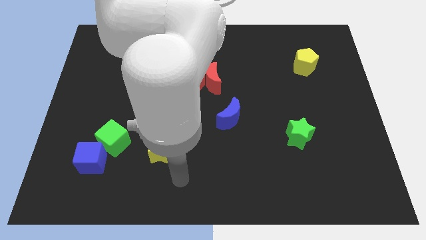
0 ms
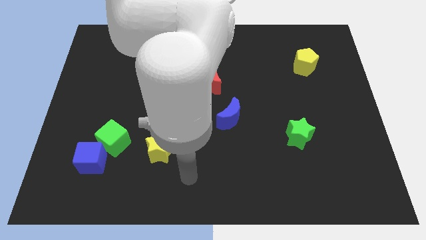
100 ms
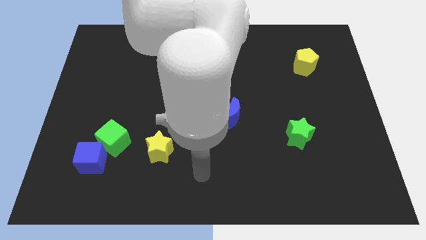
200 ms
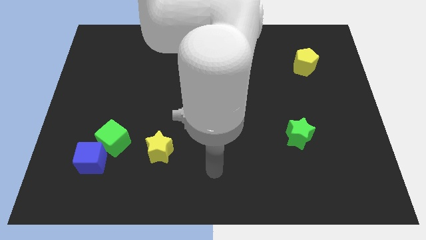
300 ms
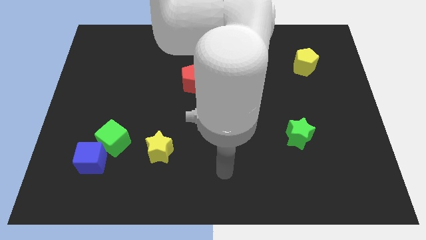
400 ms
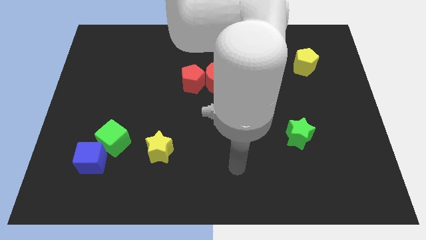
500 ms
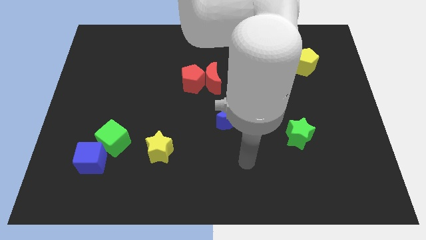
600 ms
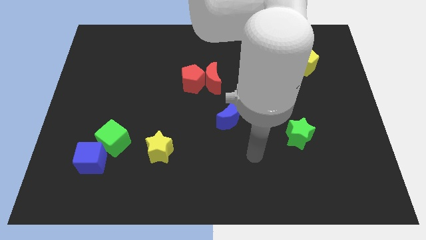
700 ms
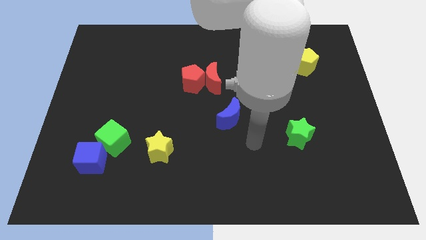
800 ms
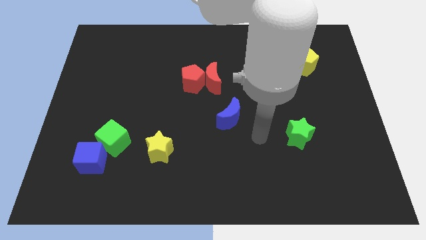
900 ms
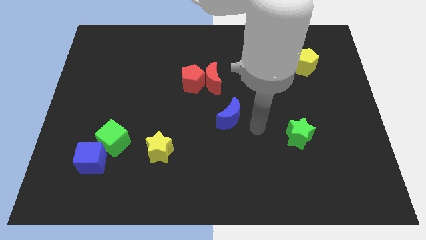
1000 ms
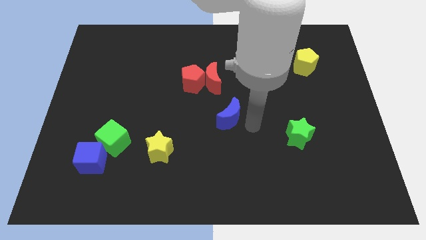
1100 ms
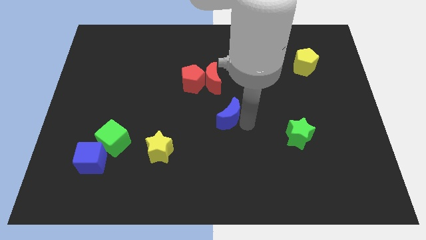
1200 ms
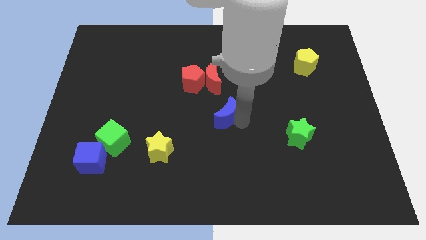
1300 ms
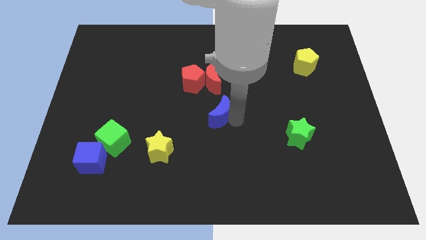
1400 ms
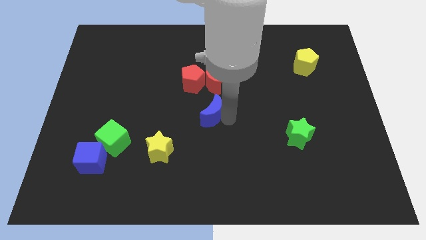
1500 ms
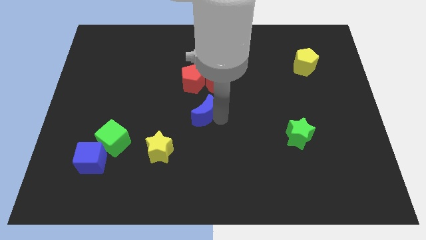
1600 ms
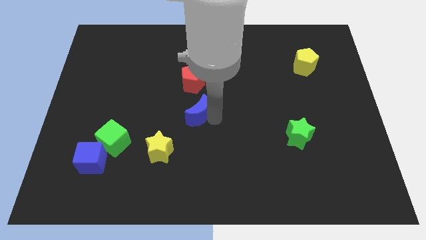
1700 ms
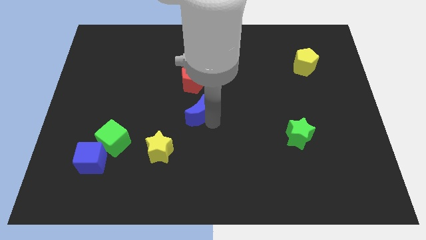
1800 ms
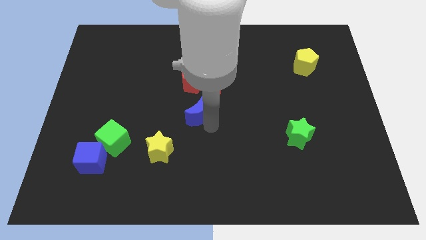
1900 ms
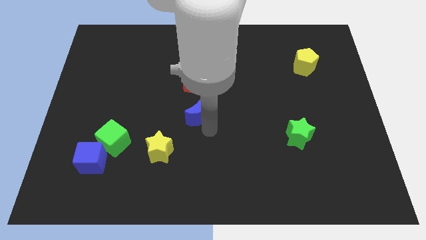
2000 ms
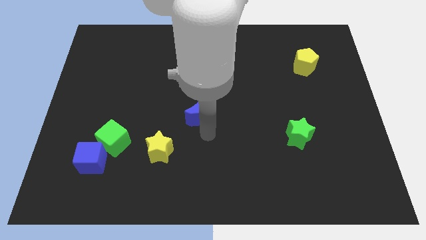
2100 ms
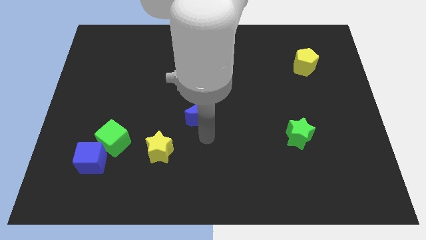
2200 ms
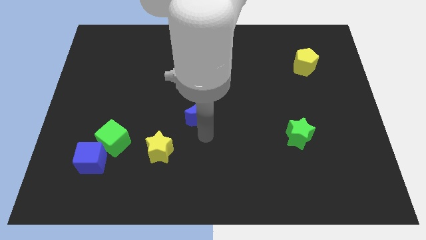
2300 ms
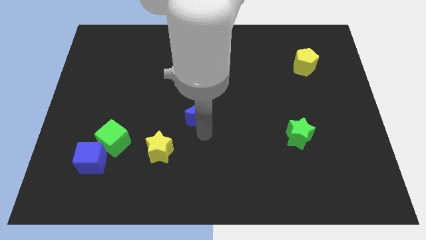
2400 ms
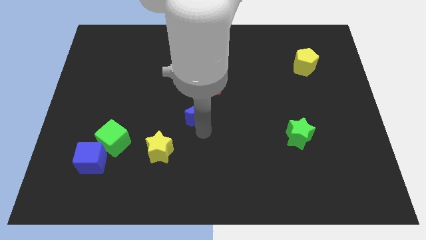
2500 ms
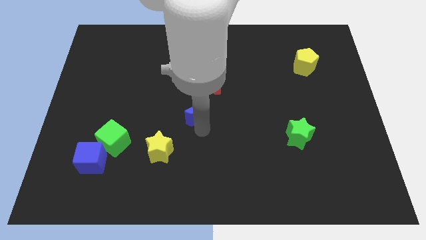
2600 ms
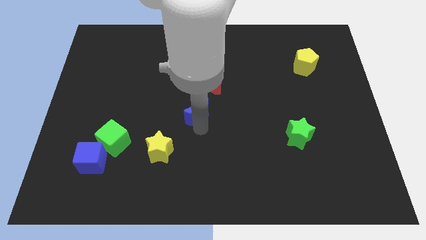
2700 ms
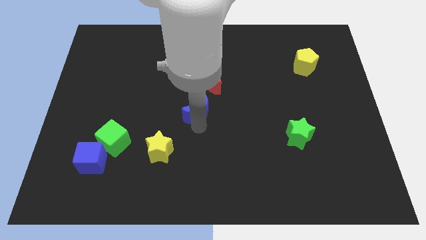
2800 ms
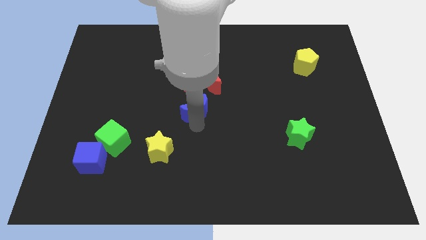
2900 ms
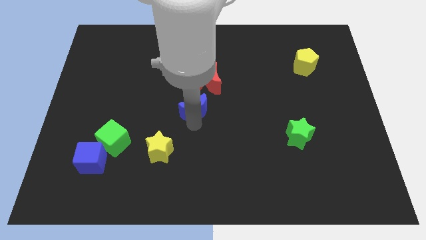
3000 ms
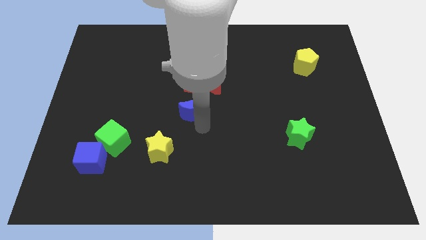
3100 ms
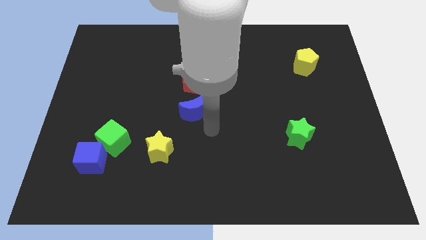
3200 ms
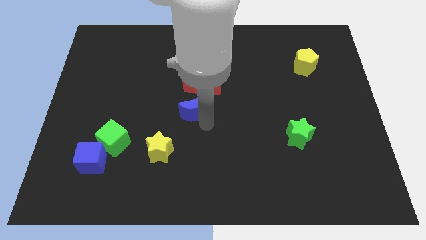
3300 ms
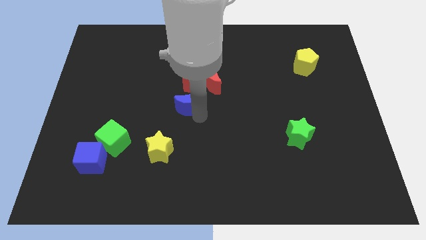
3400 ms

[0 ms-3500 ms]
move the blue moon upwards and to the left a little bit

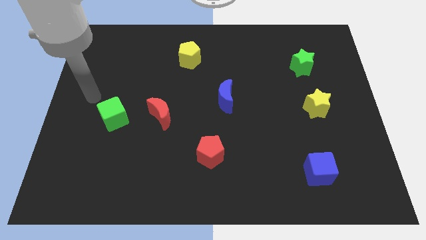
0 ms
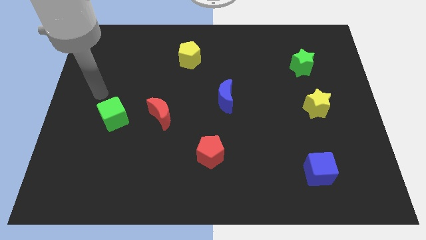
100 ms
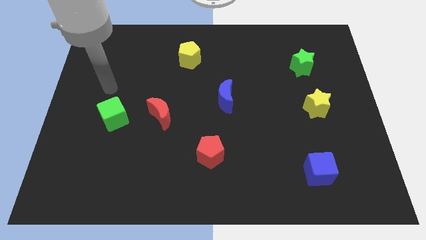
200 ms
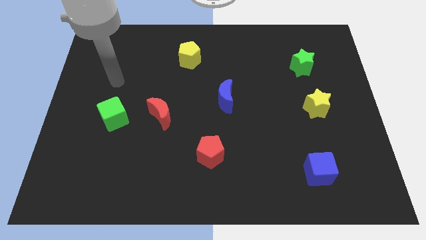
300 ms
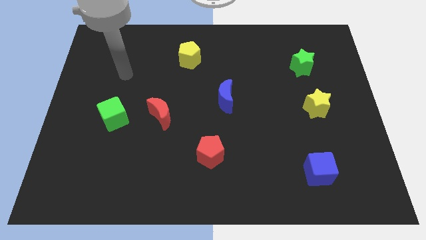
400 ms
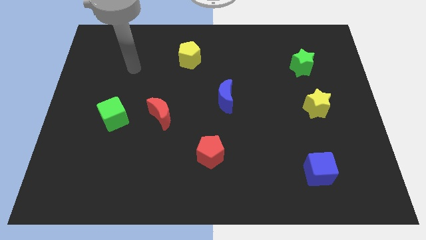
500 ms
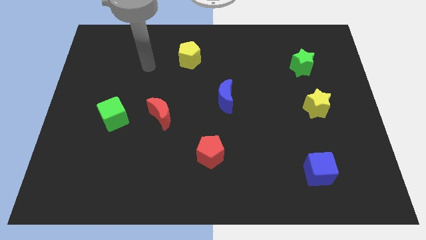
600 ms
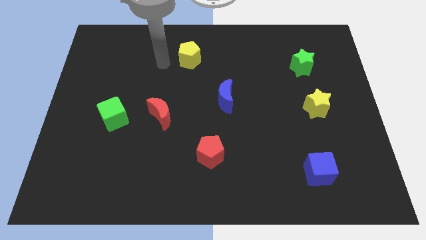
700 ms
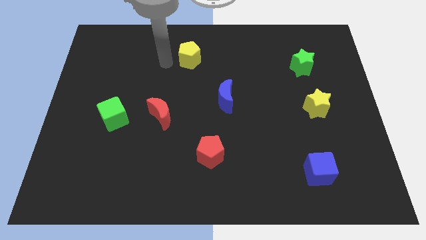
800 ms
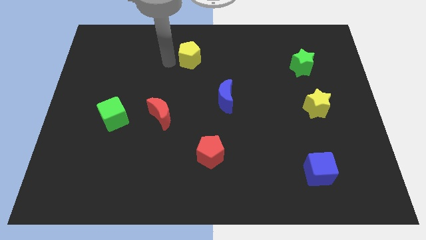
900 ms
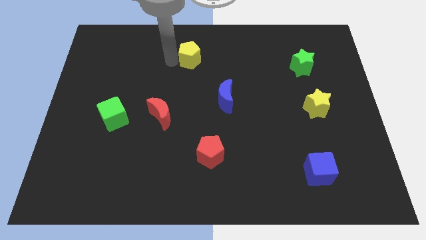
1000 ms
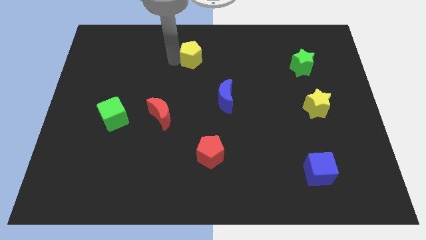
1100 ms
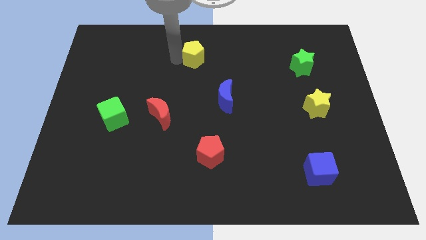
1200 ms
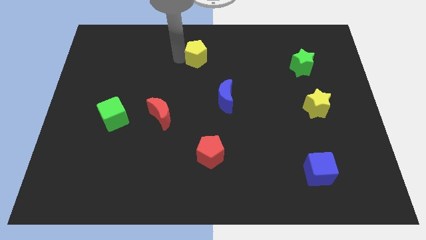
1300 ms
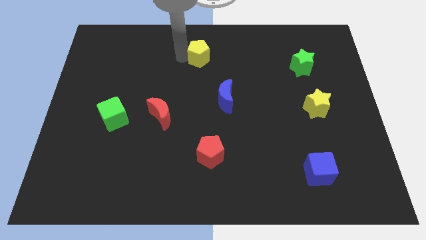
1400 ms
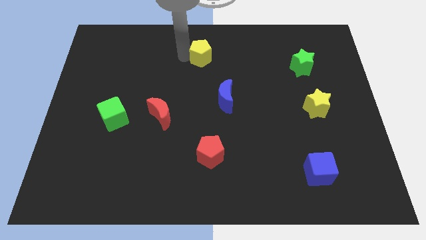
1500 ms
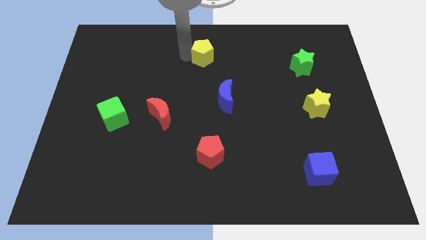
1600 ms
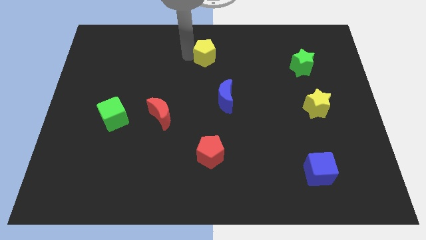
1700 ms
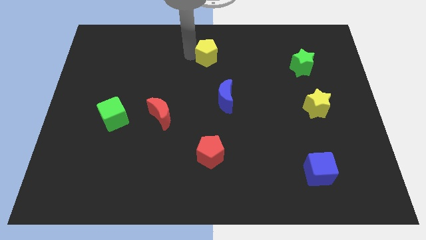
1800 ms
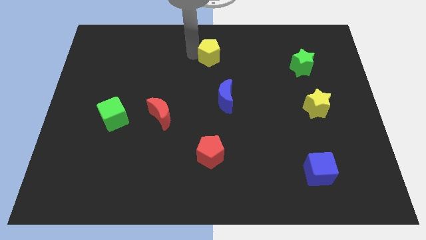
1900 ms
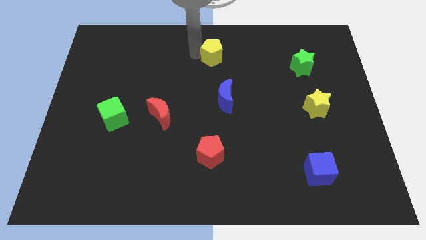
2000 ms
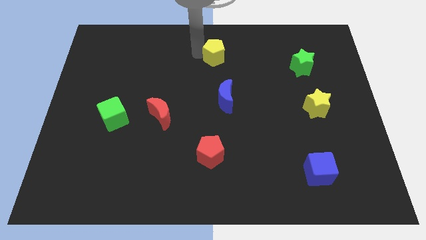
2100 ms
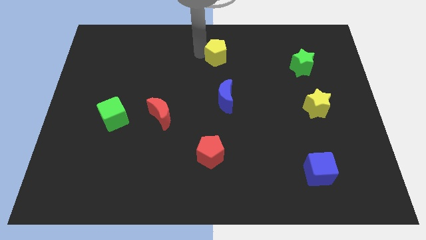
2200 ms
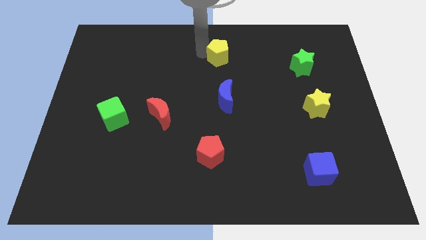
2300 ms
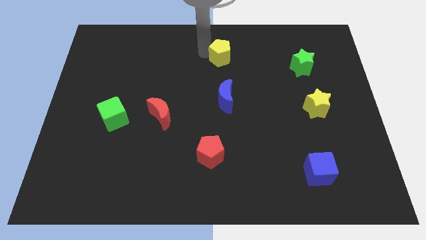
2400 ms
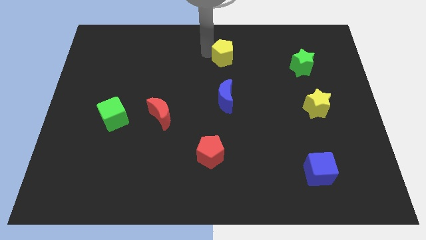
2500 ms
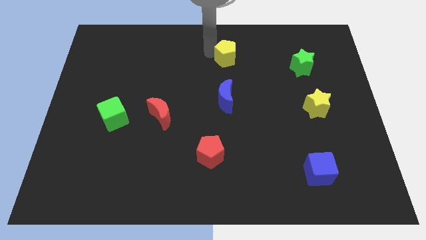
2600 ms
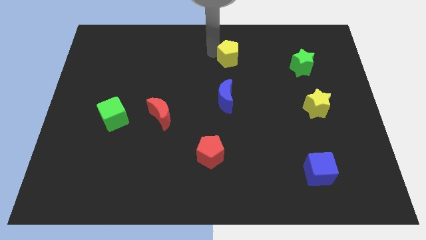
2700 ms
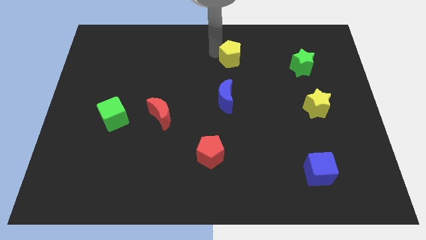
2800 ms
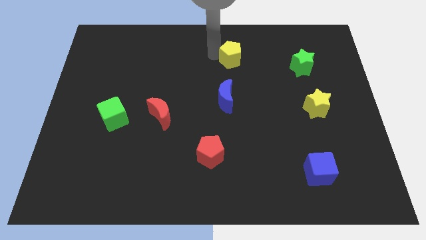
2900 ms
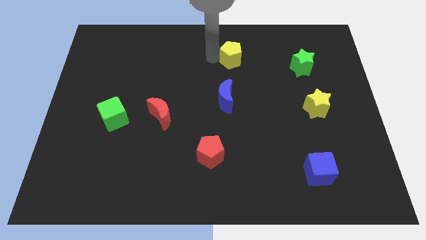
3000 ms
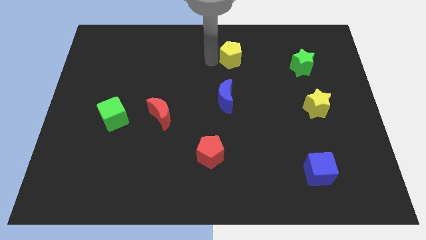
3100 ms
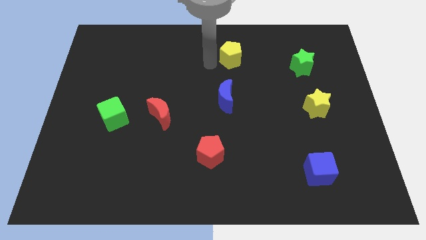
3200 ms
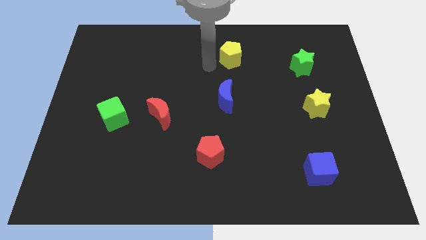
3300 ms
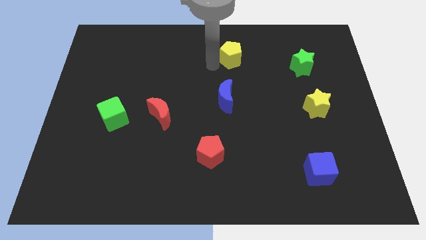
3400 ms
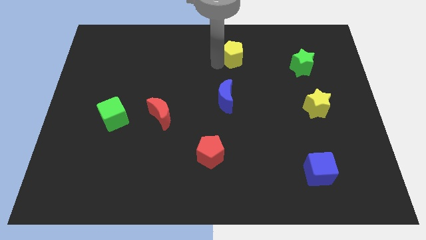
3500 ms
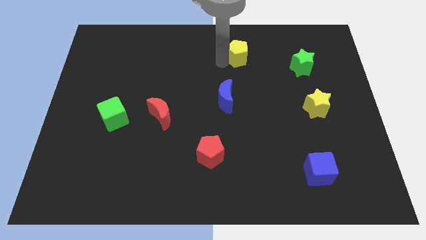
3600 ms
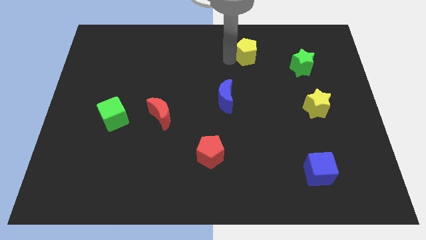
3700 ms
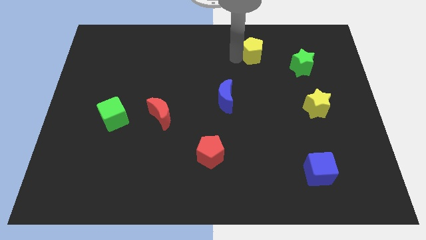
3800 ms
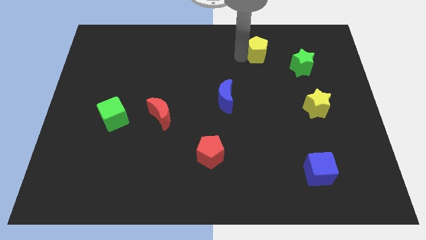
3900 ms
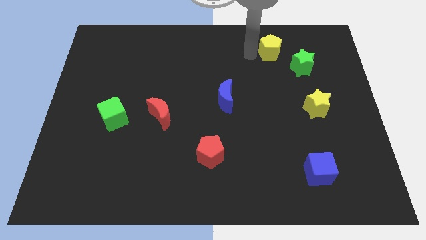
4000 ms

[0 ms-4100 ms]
push the yellow pentagon right

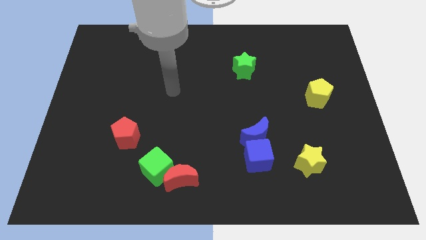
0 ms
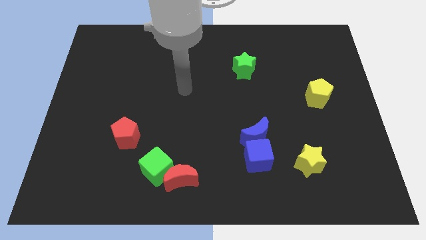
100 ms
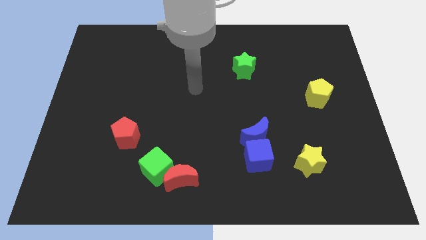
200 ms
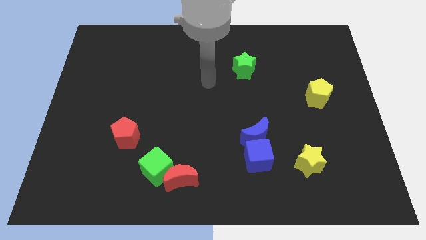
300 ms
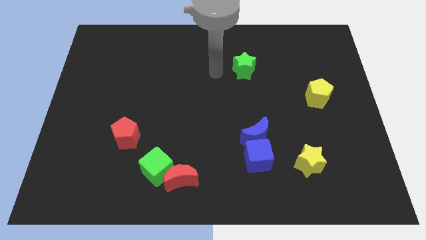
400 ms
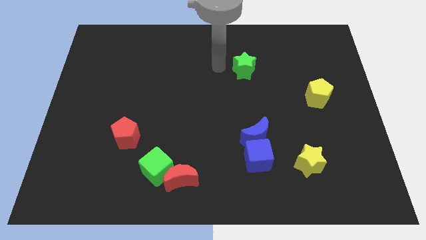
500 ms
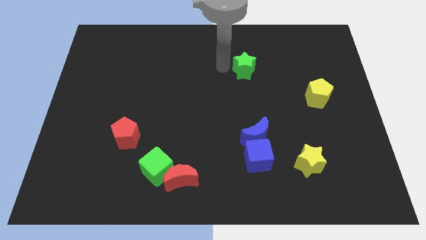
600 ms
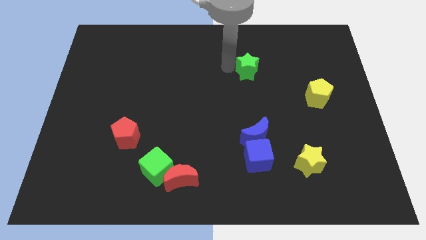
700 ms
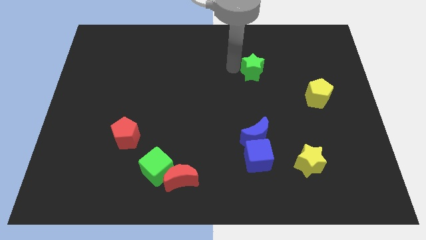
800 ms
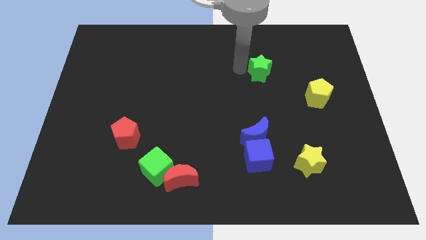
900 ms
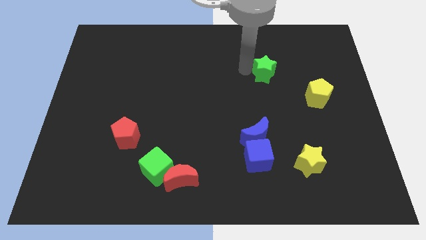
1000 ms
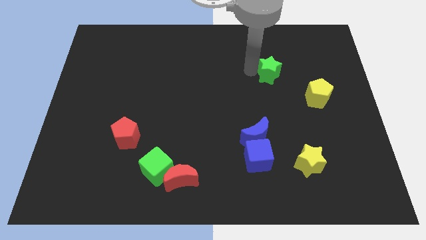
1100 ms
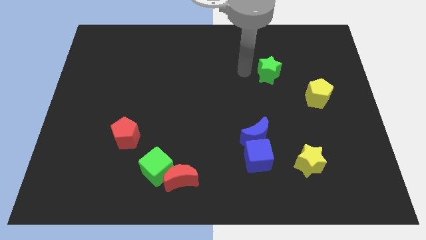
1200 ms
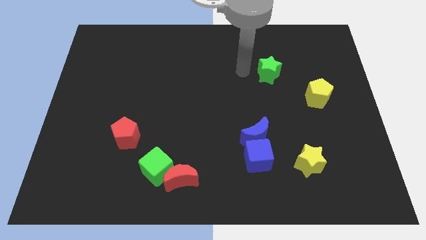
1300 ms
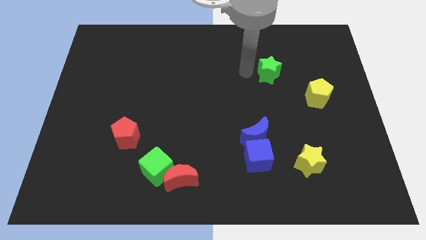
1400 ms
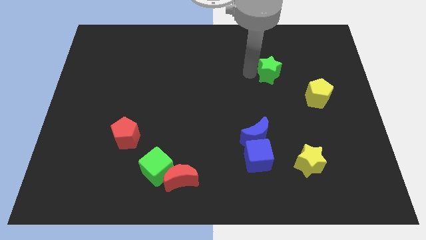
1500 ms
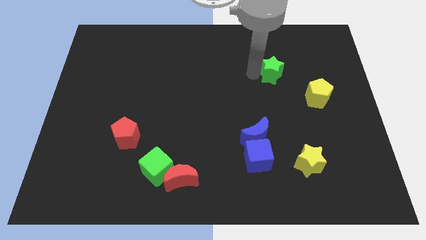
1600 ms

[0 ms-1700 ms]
slightly push the green star to the right
